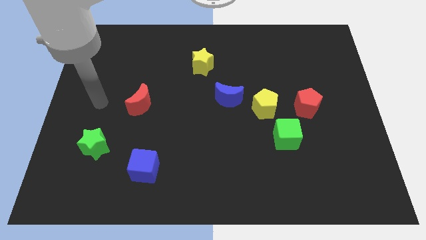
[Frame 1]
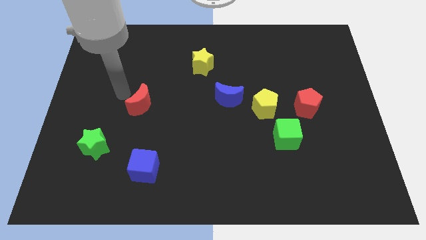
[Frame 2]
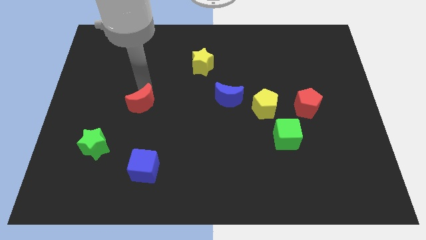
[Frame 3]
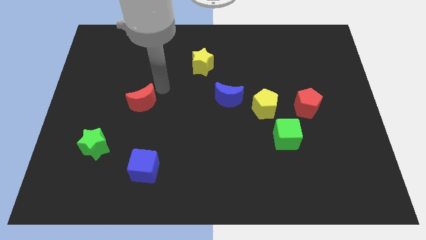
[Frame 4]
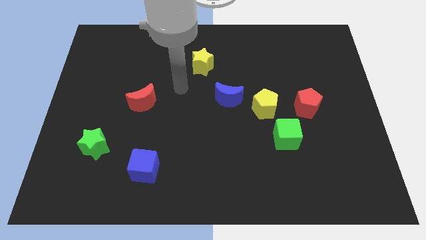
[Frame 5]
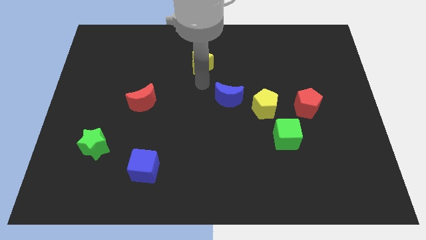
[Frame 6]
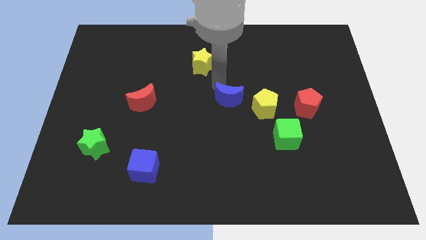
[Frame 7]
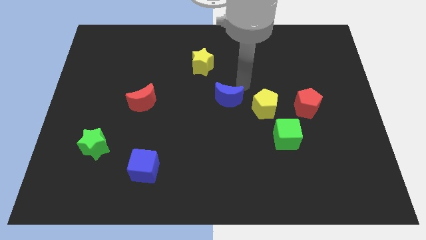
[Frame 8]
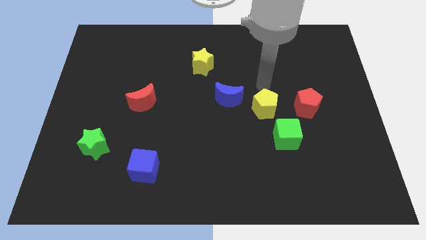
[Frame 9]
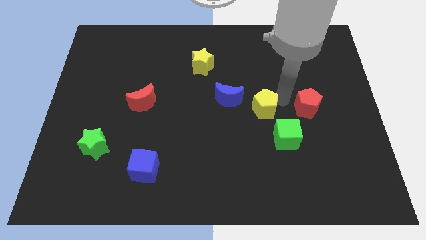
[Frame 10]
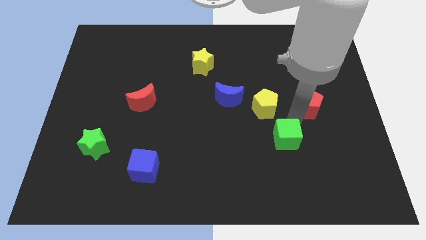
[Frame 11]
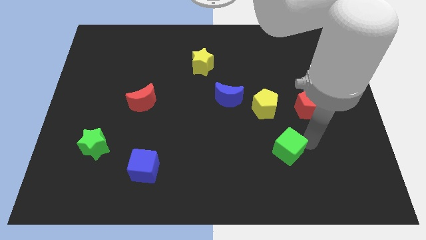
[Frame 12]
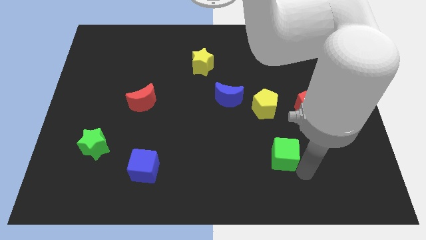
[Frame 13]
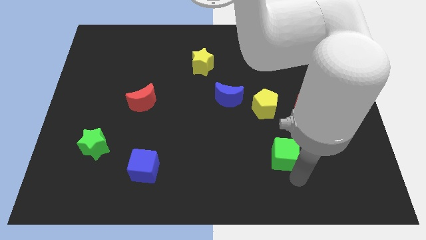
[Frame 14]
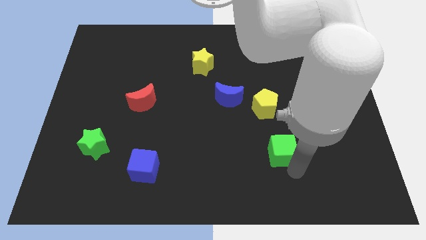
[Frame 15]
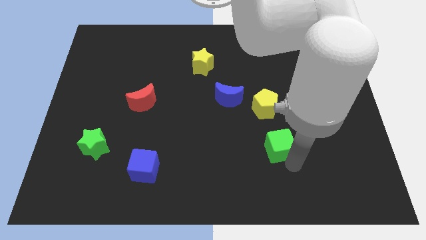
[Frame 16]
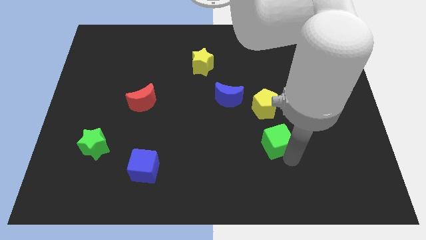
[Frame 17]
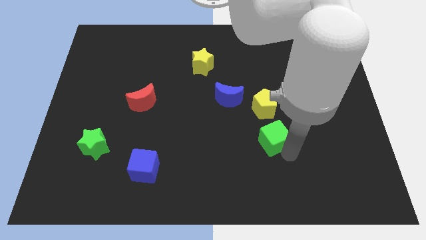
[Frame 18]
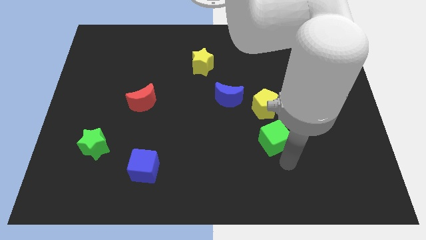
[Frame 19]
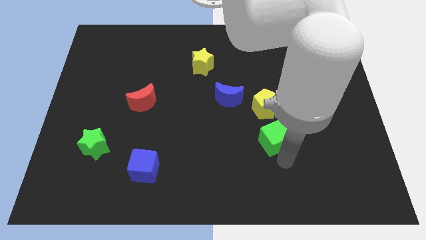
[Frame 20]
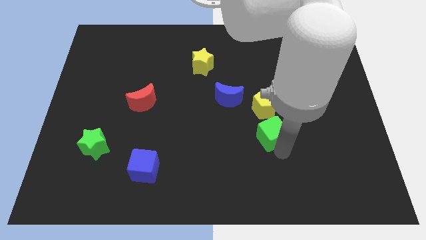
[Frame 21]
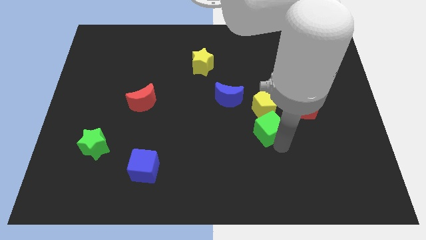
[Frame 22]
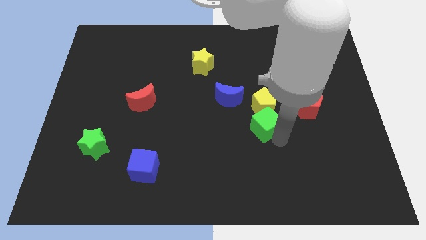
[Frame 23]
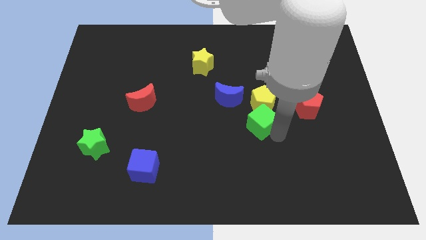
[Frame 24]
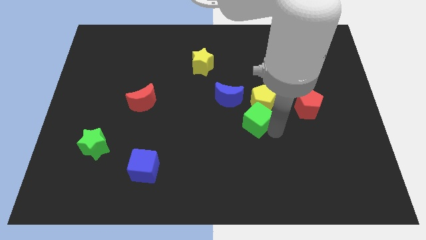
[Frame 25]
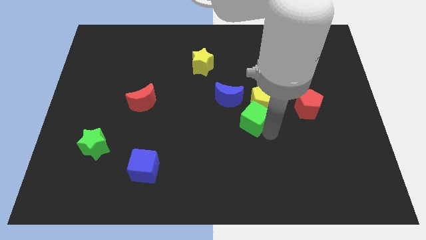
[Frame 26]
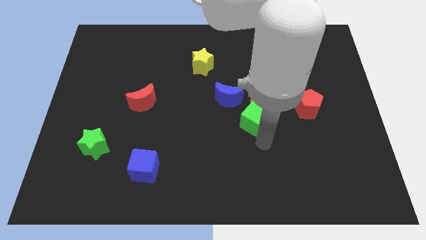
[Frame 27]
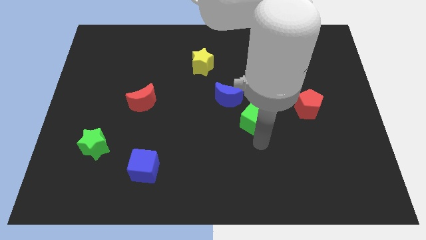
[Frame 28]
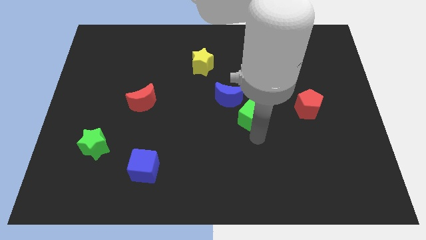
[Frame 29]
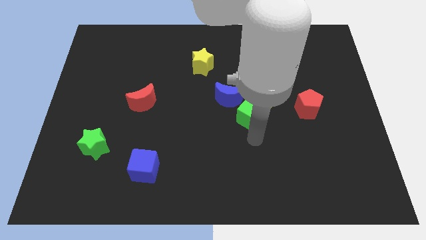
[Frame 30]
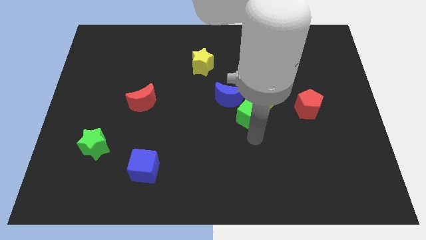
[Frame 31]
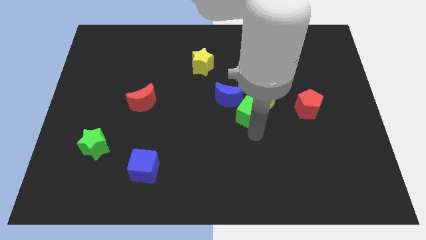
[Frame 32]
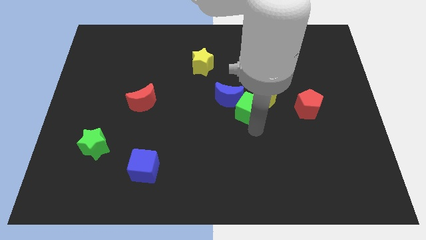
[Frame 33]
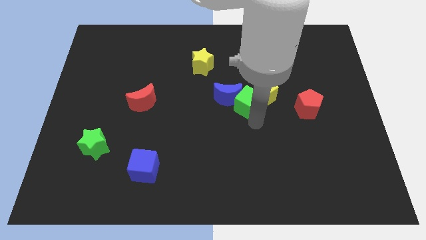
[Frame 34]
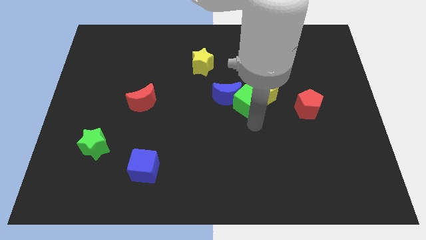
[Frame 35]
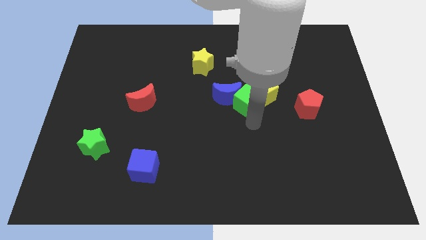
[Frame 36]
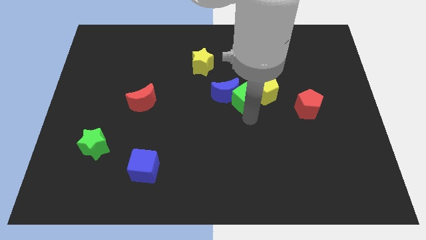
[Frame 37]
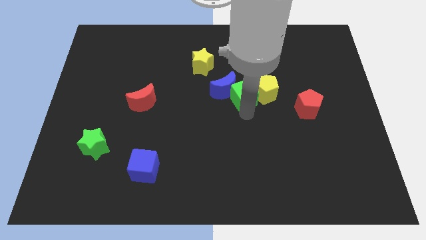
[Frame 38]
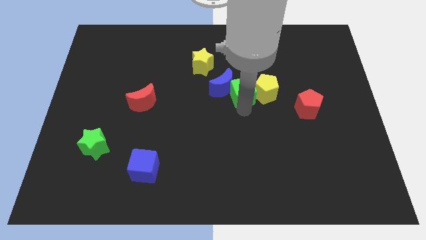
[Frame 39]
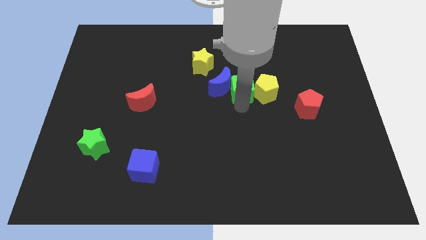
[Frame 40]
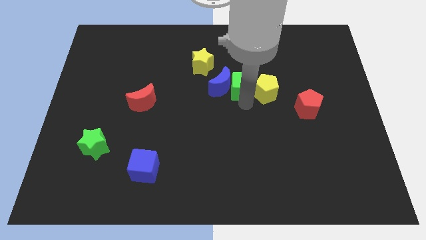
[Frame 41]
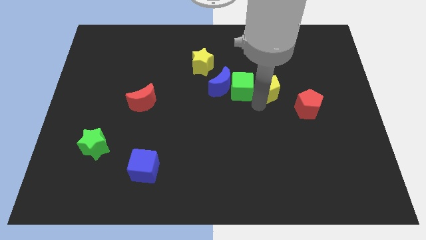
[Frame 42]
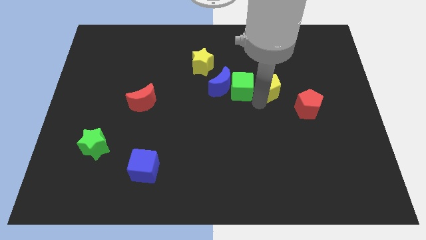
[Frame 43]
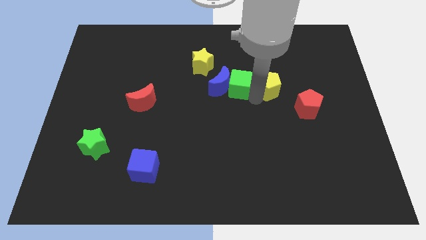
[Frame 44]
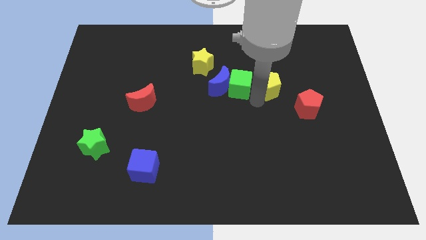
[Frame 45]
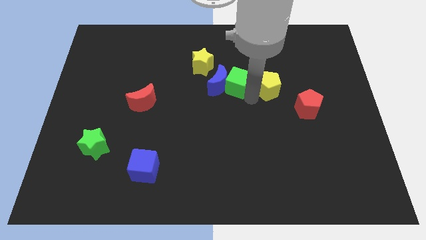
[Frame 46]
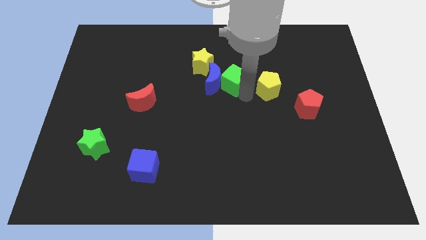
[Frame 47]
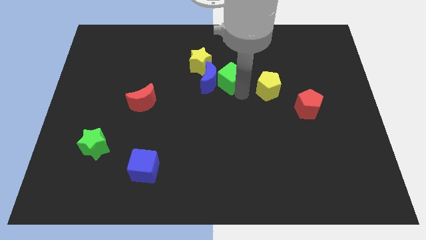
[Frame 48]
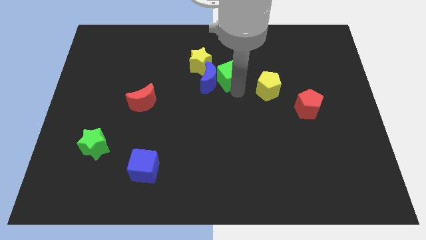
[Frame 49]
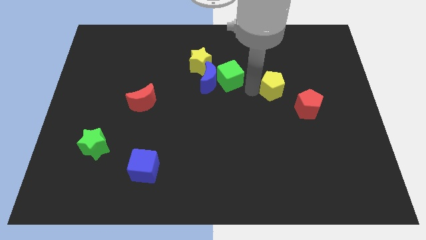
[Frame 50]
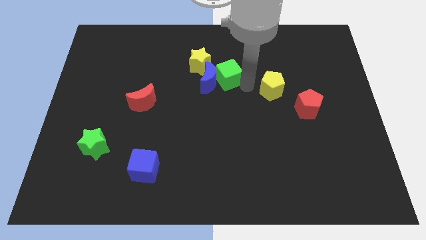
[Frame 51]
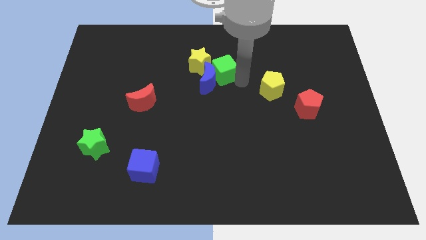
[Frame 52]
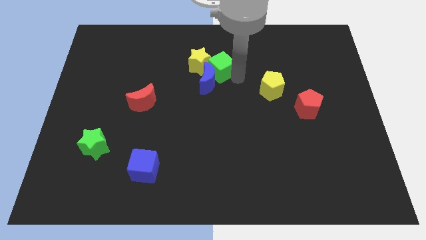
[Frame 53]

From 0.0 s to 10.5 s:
slide the green cube close to the yellow star

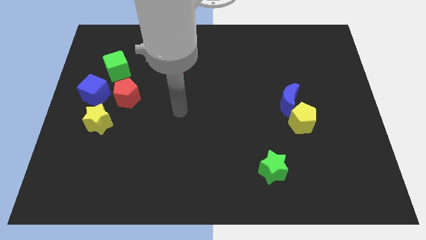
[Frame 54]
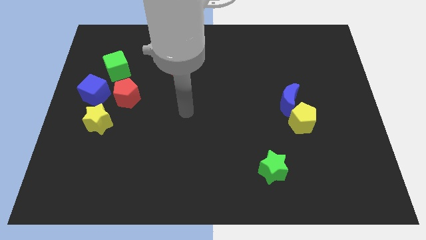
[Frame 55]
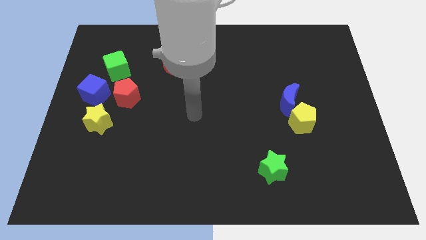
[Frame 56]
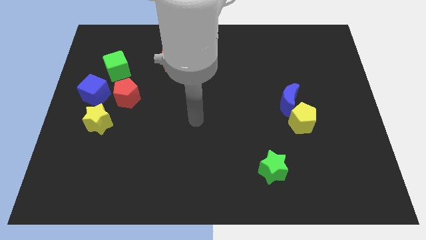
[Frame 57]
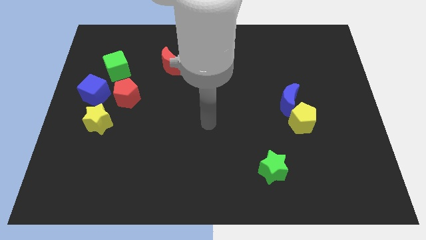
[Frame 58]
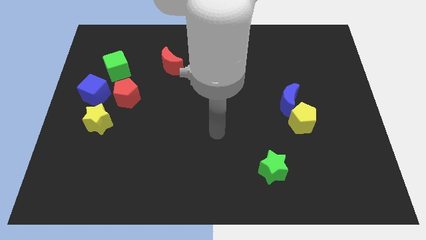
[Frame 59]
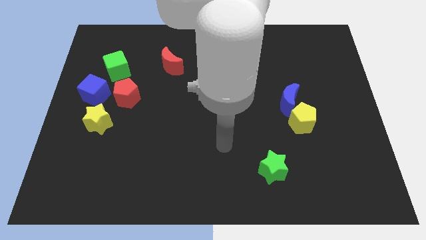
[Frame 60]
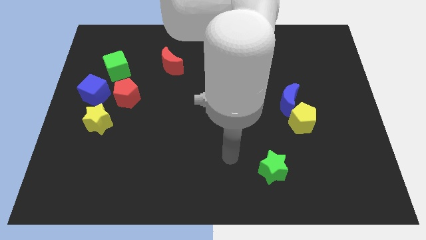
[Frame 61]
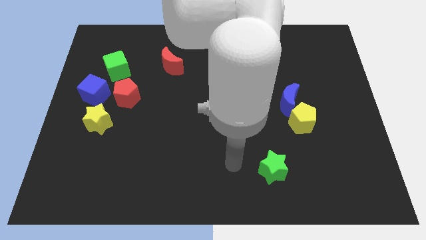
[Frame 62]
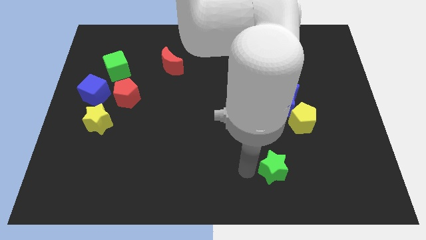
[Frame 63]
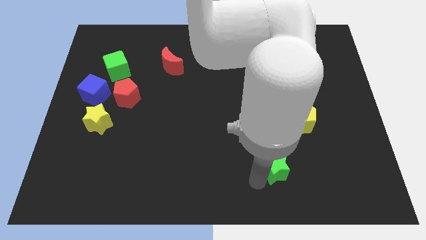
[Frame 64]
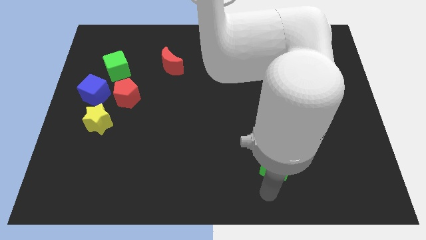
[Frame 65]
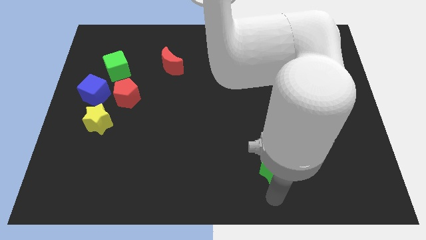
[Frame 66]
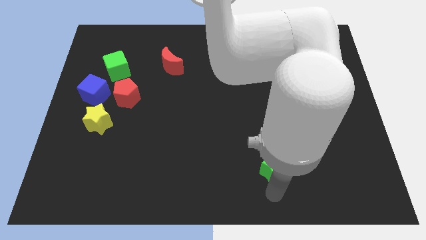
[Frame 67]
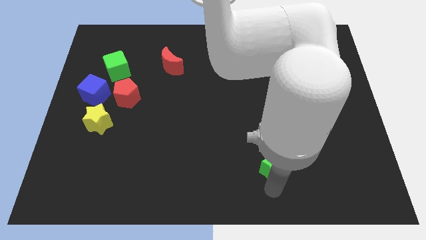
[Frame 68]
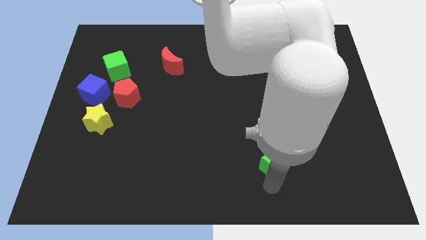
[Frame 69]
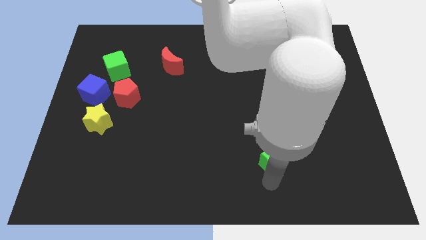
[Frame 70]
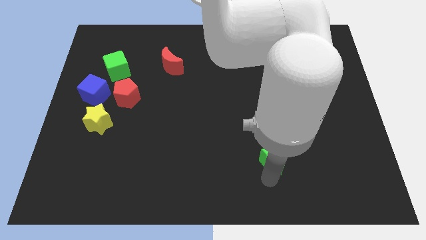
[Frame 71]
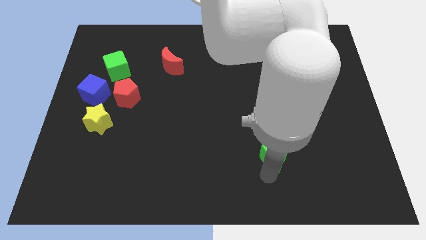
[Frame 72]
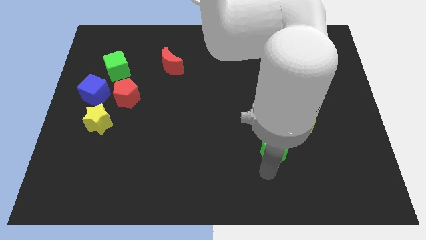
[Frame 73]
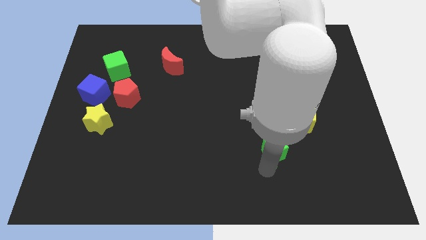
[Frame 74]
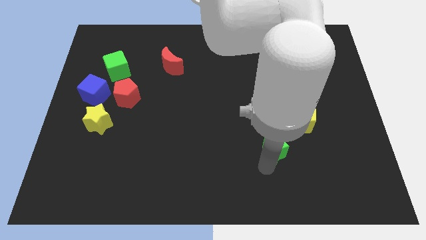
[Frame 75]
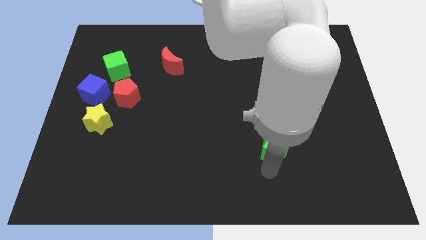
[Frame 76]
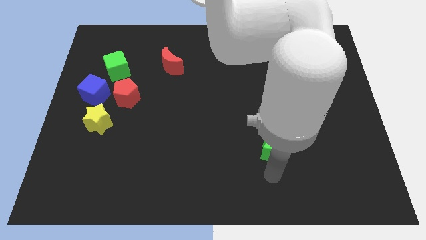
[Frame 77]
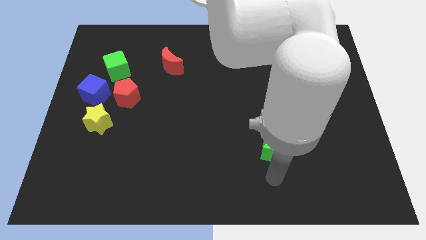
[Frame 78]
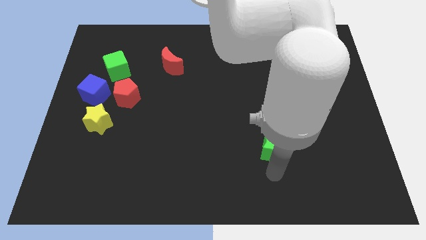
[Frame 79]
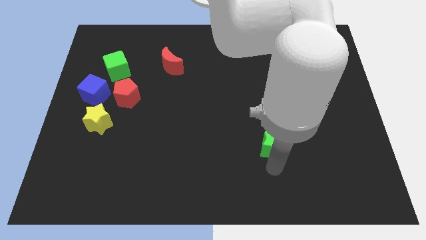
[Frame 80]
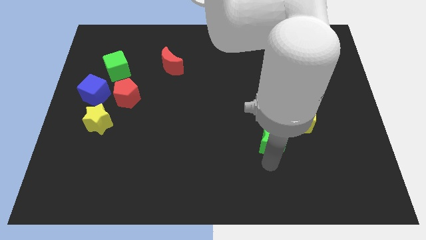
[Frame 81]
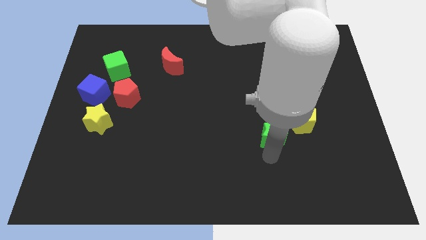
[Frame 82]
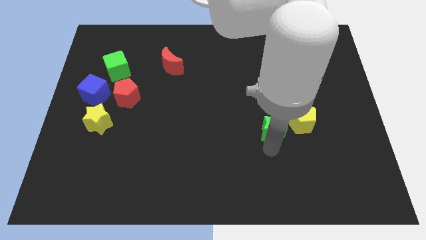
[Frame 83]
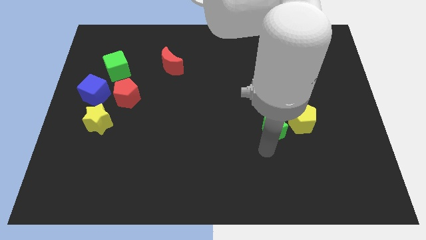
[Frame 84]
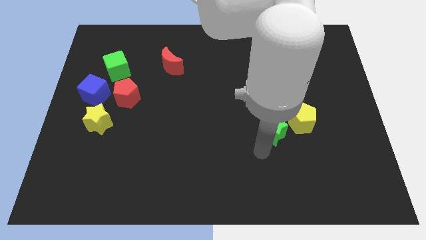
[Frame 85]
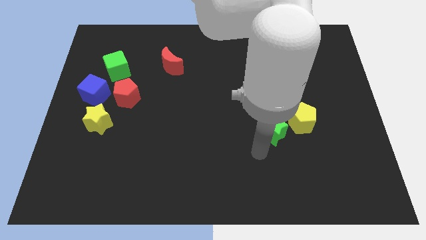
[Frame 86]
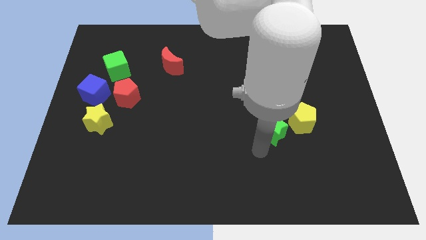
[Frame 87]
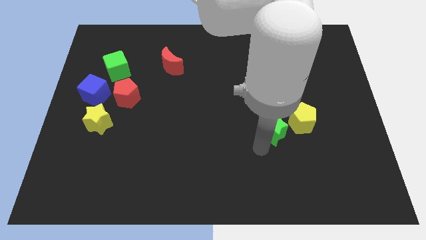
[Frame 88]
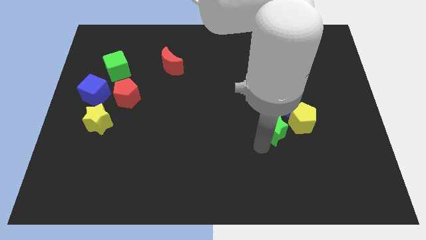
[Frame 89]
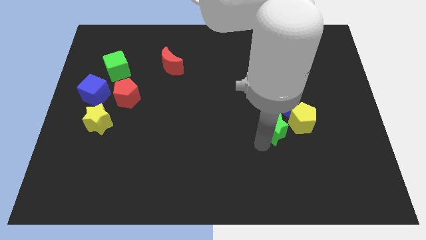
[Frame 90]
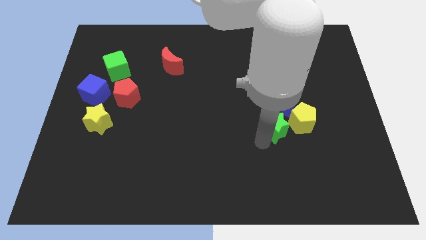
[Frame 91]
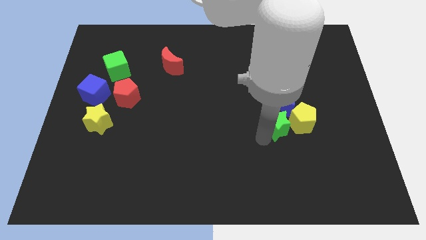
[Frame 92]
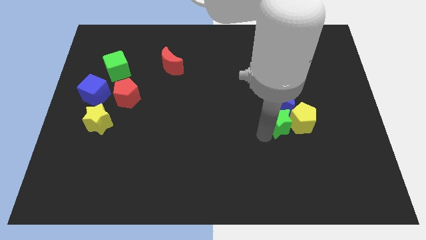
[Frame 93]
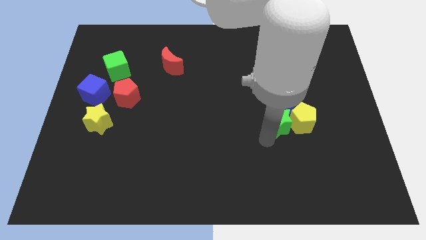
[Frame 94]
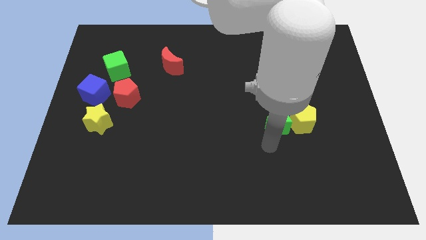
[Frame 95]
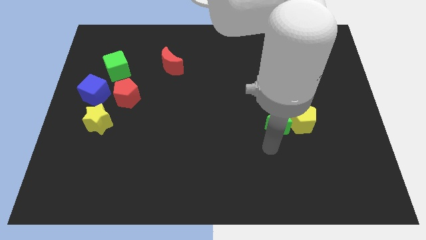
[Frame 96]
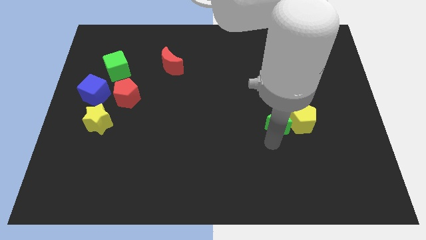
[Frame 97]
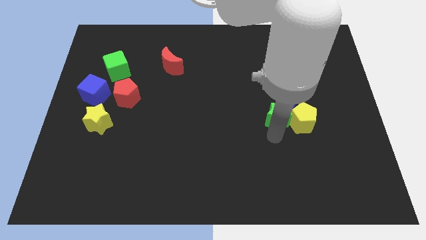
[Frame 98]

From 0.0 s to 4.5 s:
slide the green star close to the blue moon
